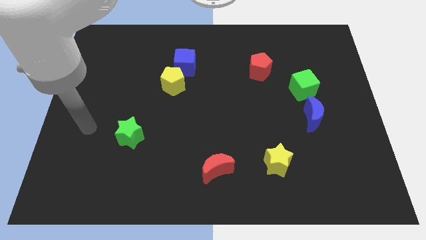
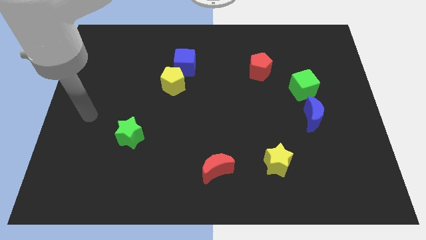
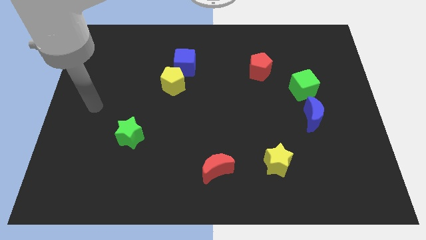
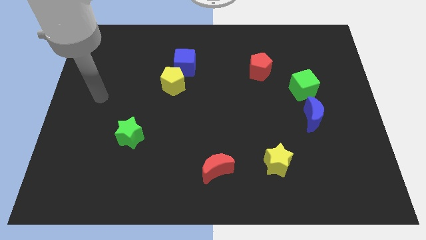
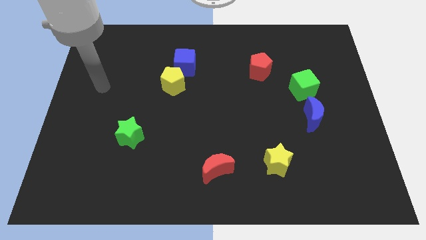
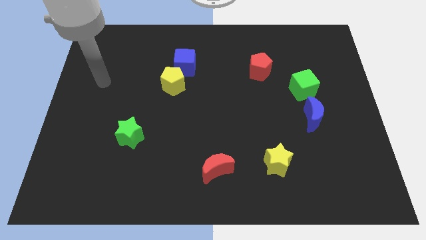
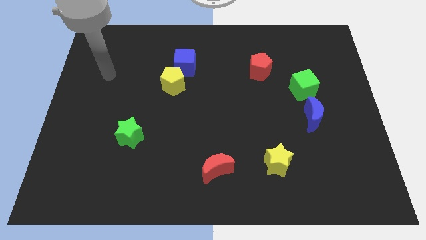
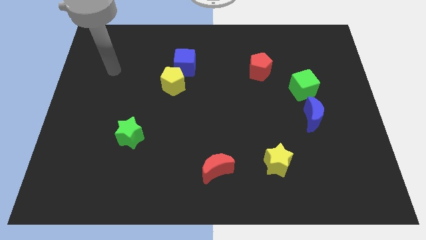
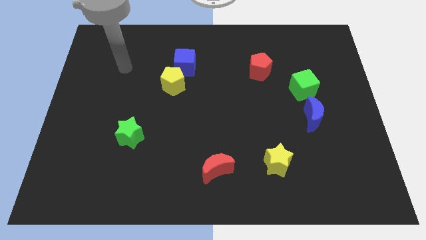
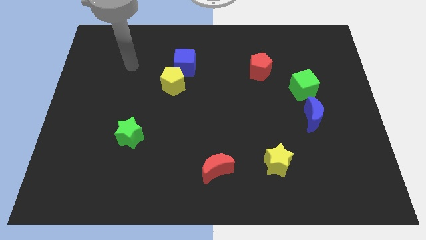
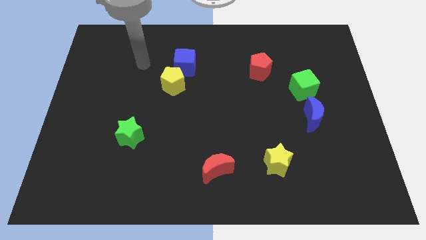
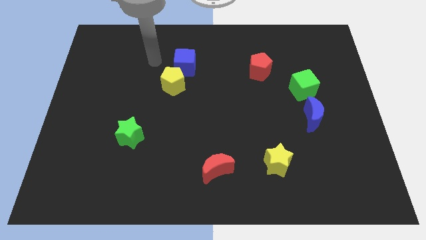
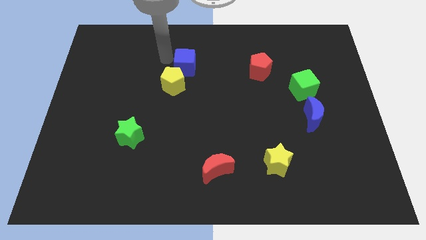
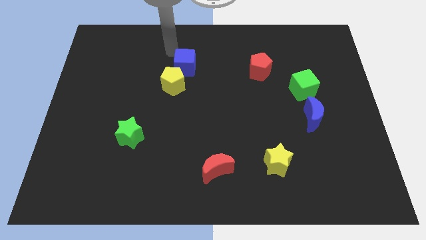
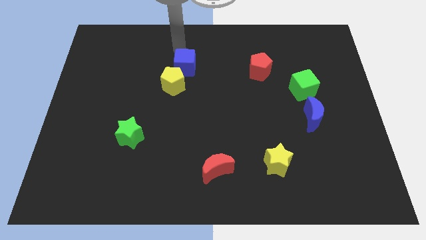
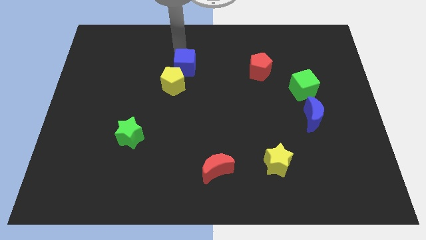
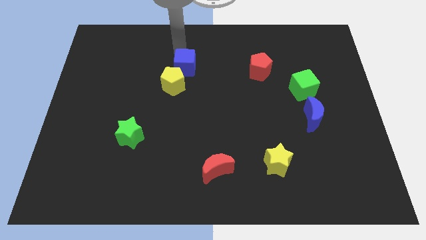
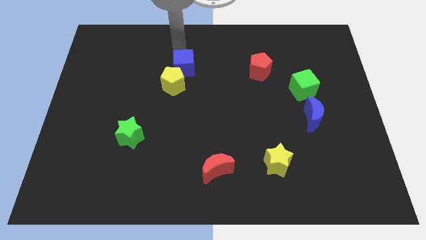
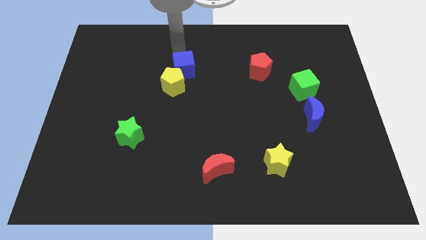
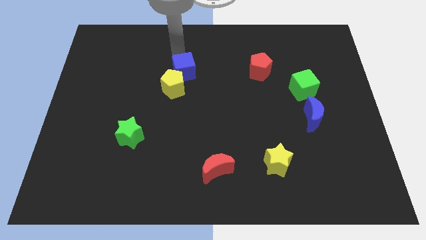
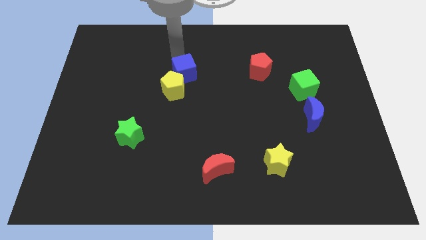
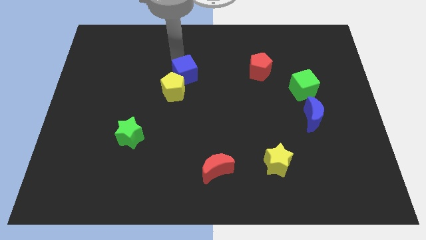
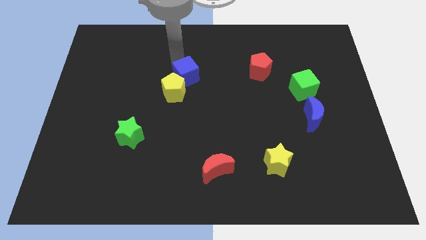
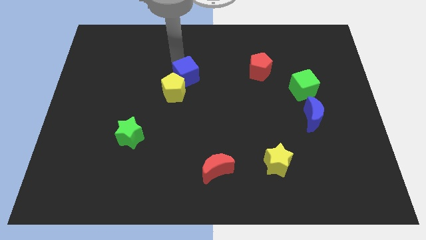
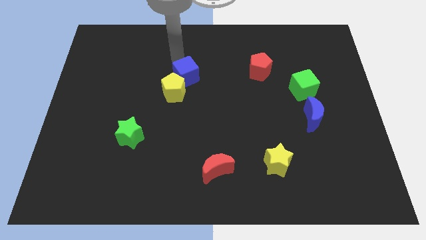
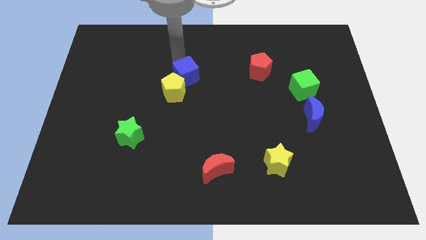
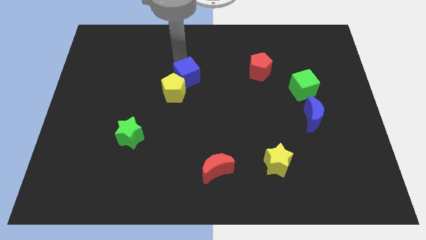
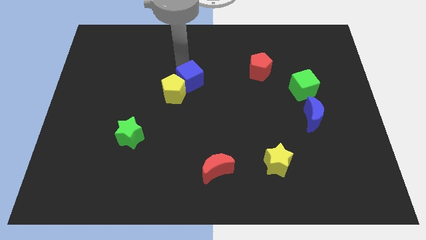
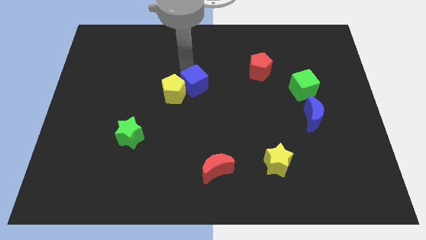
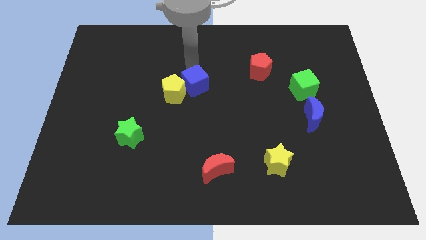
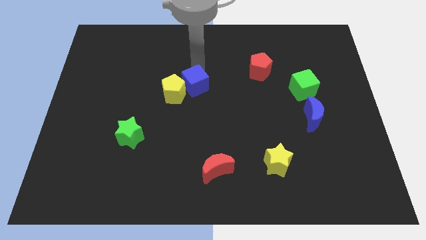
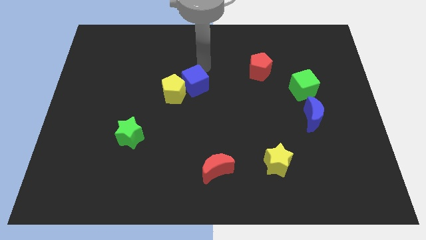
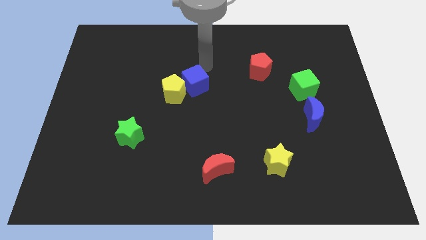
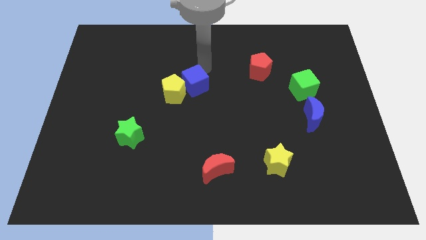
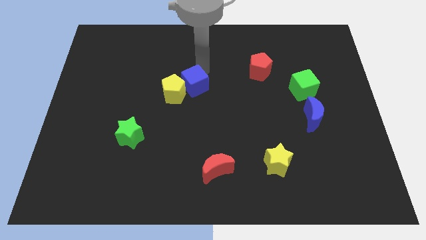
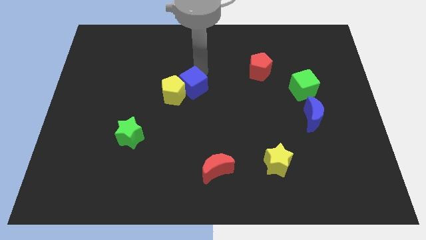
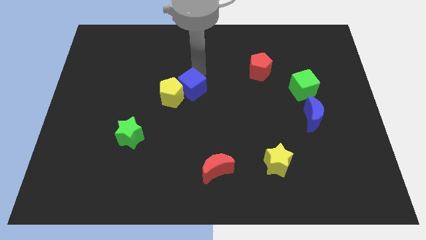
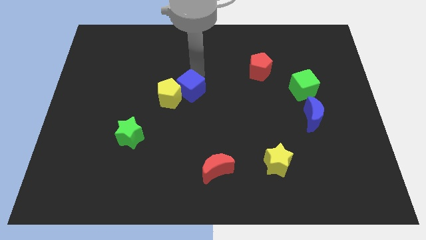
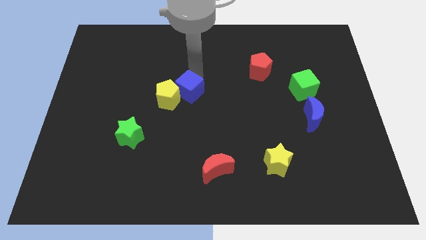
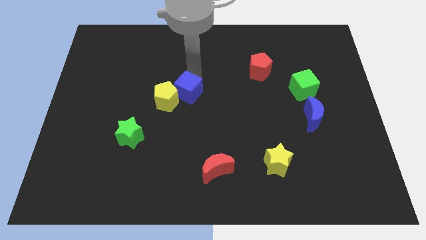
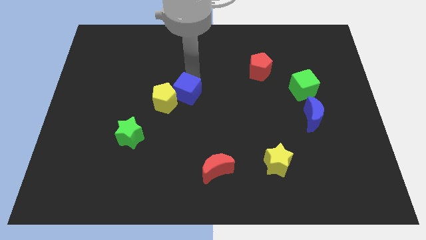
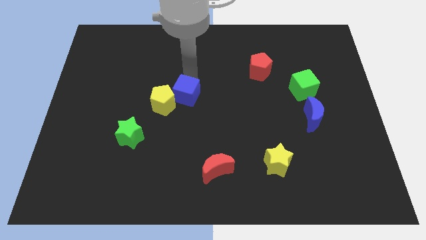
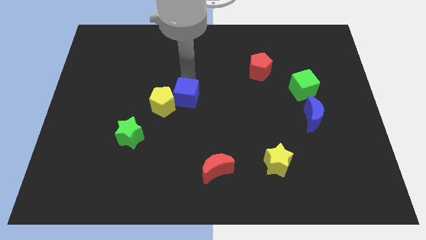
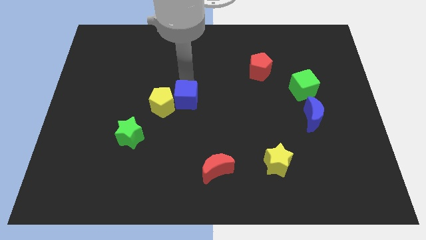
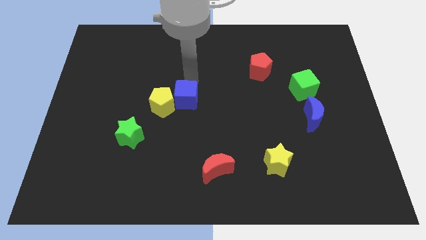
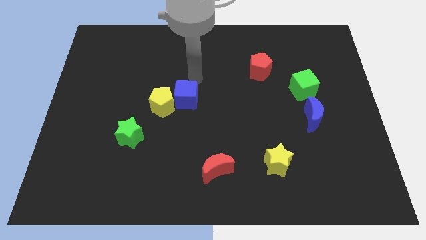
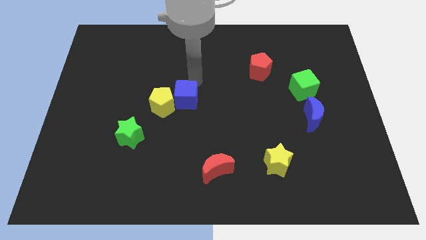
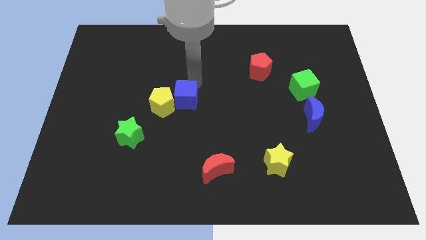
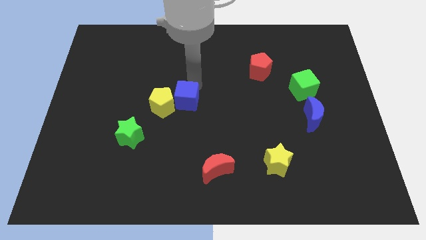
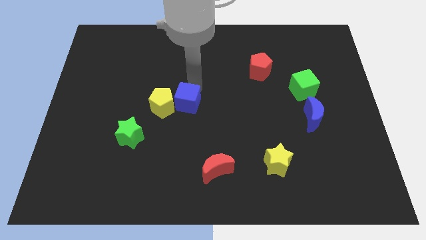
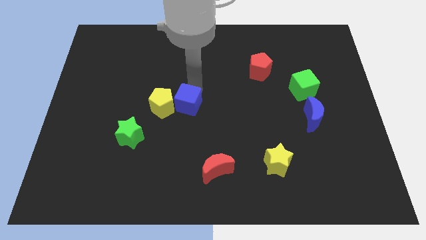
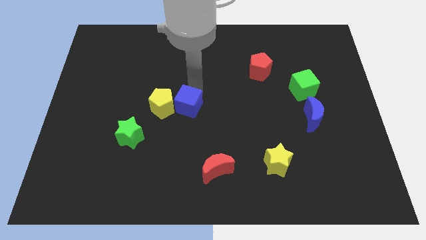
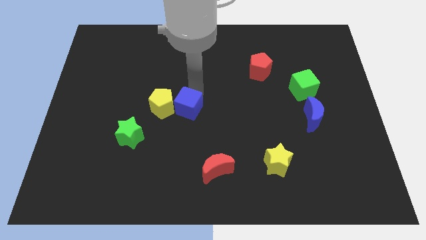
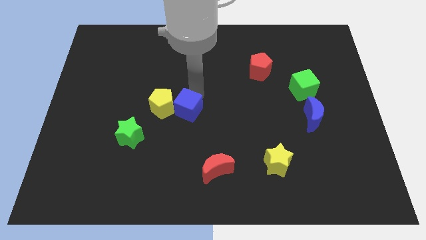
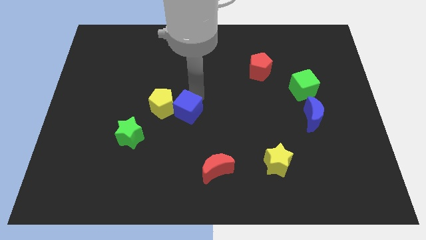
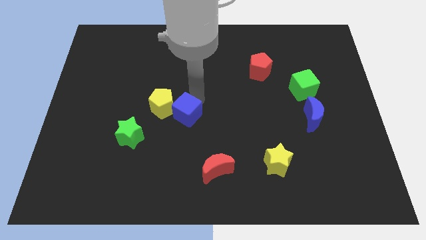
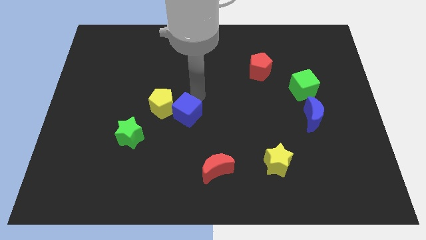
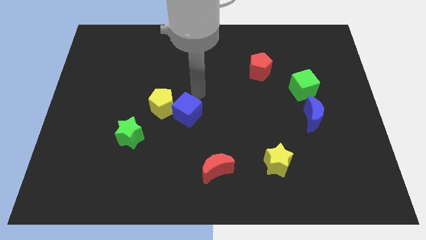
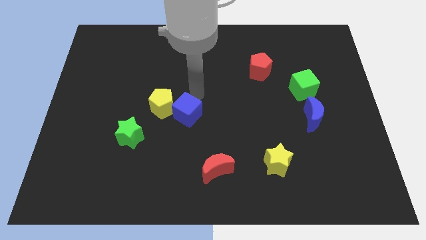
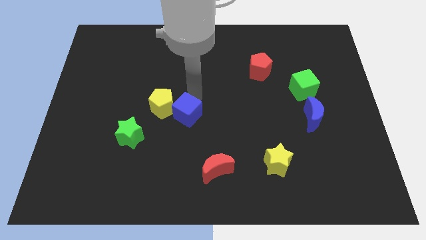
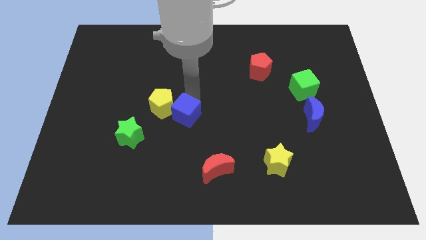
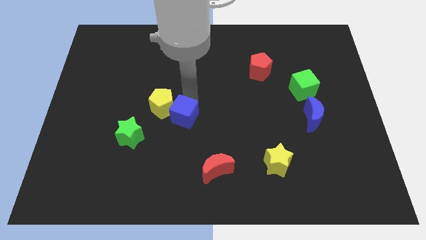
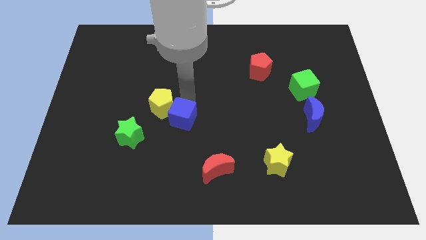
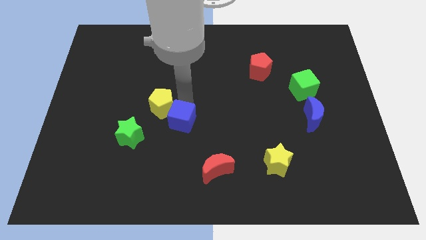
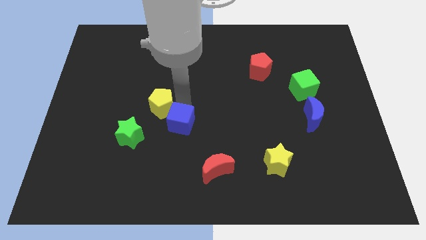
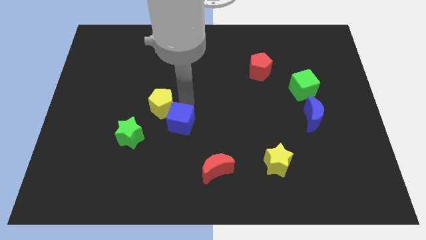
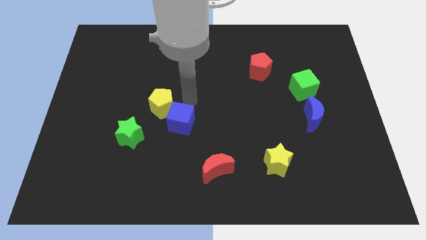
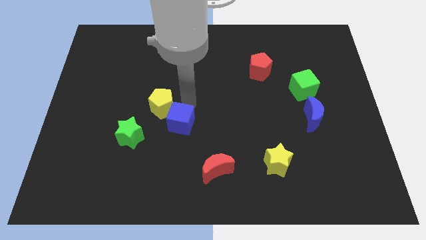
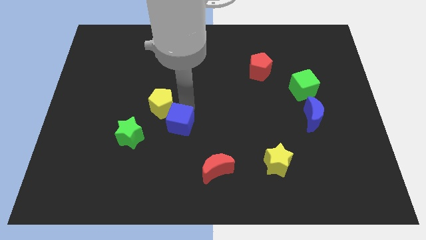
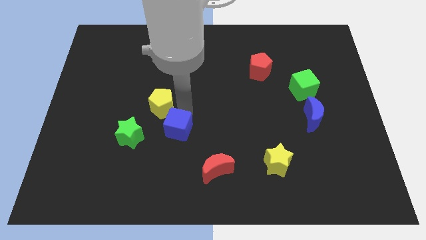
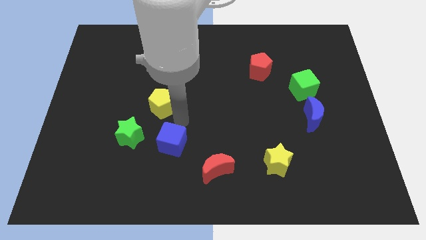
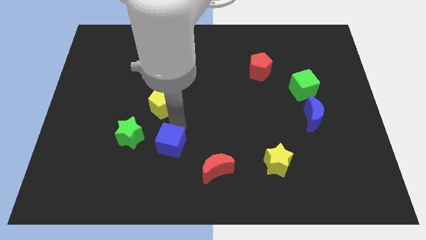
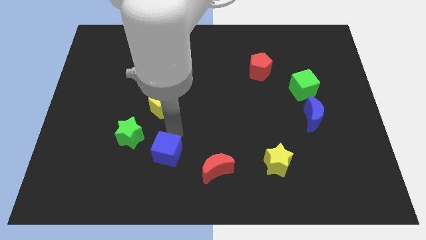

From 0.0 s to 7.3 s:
slide the blue cube to the left side of the red moon
